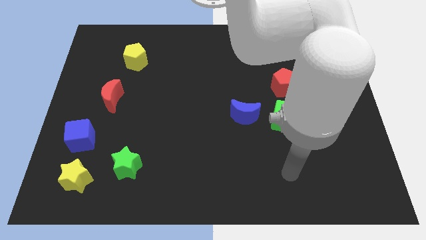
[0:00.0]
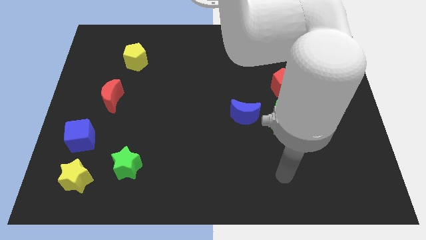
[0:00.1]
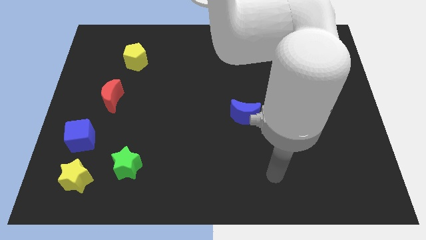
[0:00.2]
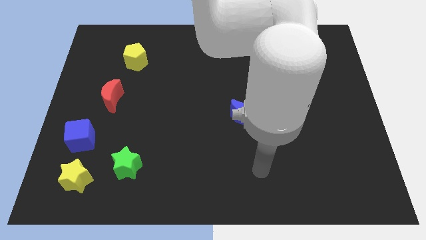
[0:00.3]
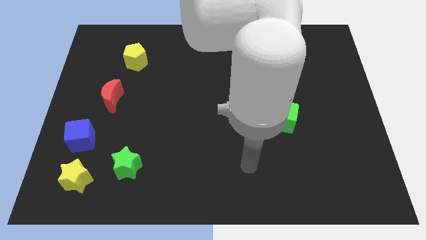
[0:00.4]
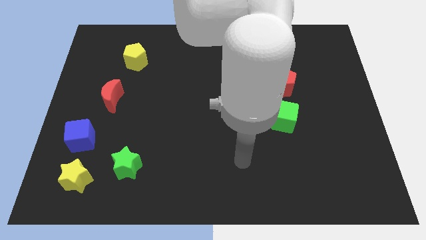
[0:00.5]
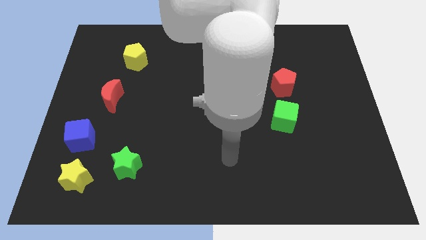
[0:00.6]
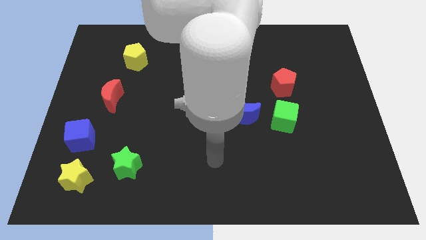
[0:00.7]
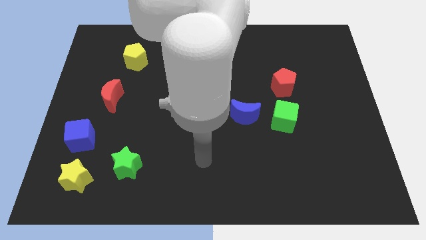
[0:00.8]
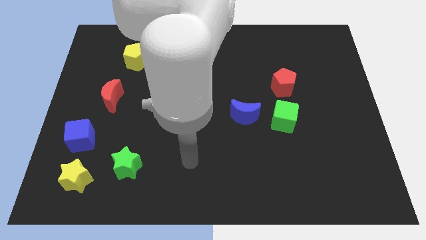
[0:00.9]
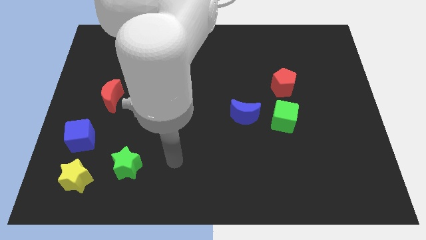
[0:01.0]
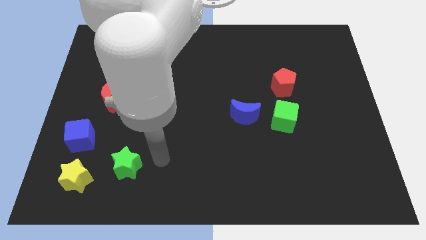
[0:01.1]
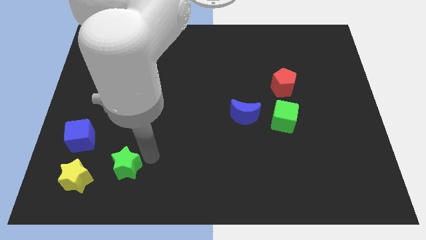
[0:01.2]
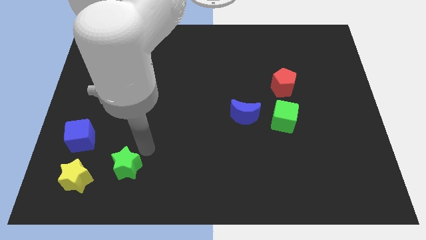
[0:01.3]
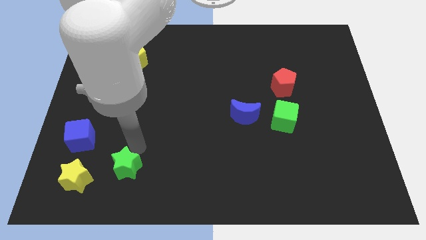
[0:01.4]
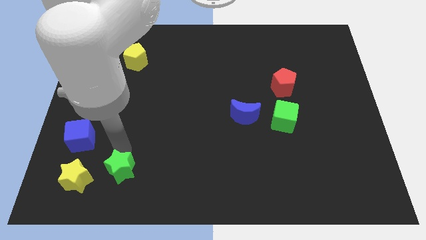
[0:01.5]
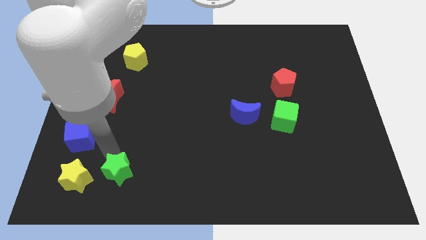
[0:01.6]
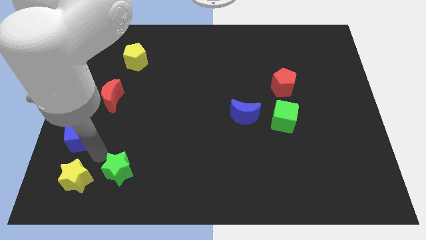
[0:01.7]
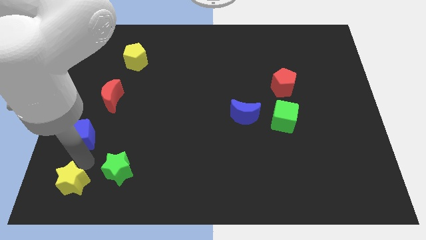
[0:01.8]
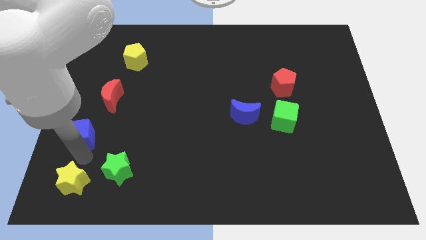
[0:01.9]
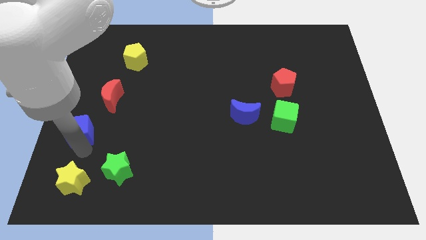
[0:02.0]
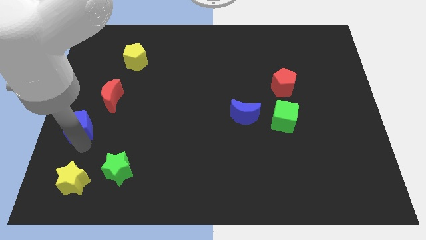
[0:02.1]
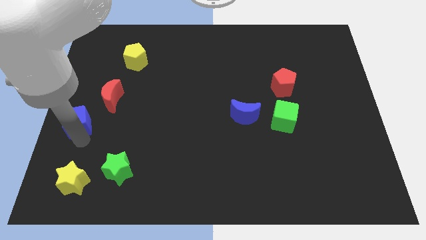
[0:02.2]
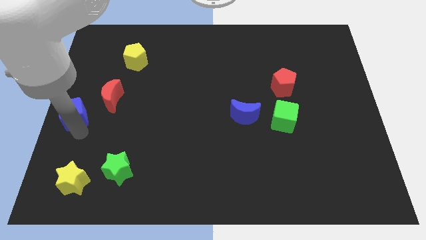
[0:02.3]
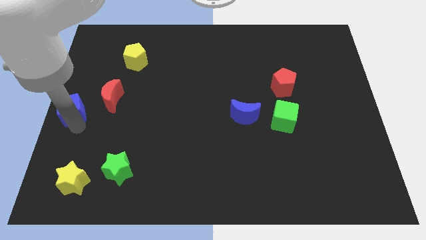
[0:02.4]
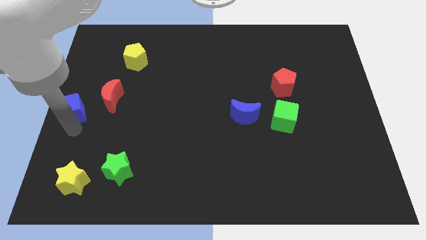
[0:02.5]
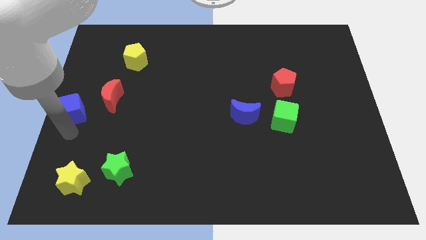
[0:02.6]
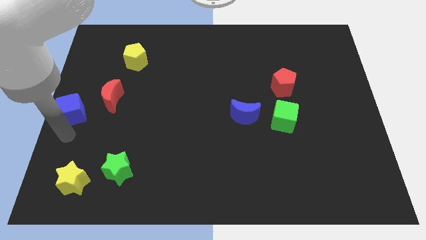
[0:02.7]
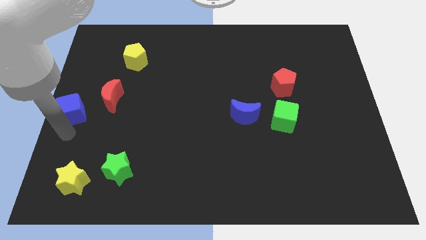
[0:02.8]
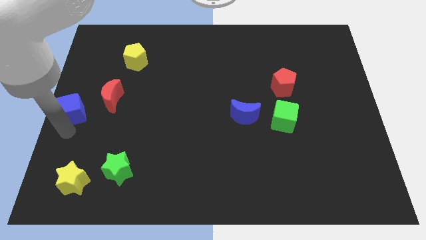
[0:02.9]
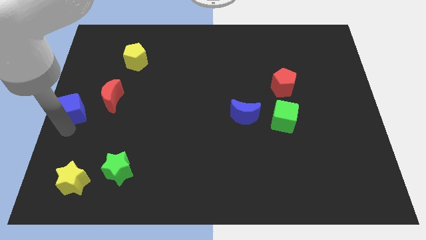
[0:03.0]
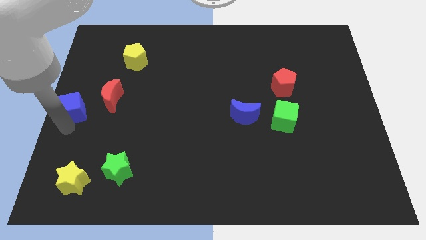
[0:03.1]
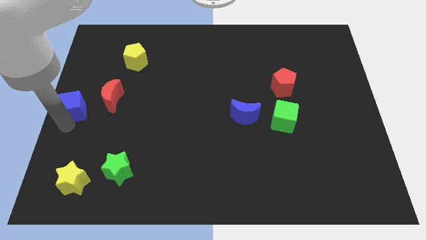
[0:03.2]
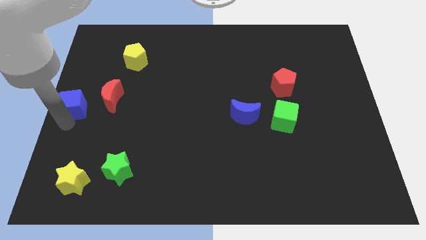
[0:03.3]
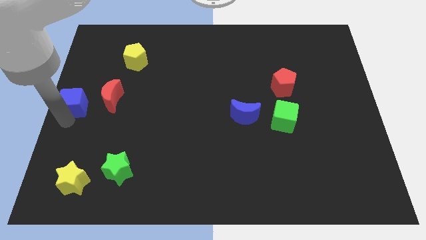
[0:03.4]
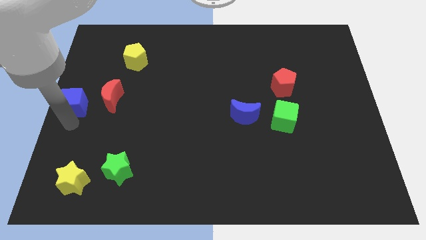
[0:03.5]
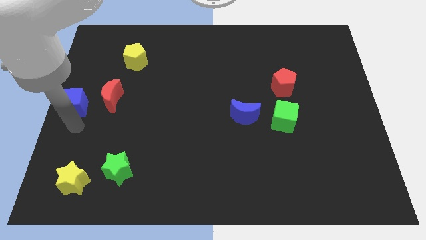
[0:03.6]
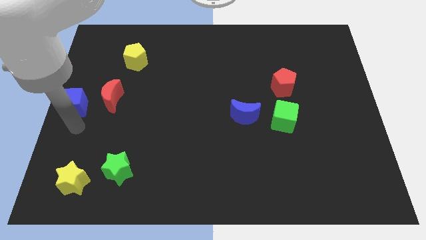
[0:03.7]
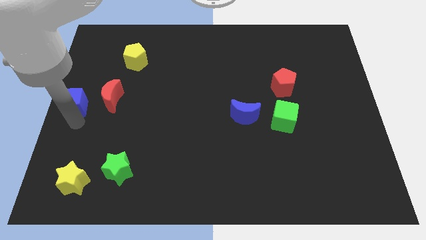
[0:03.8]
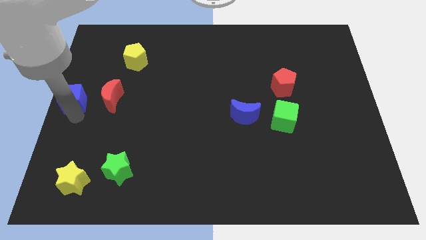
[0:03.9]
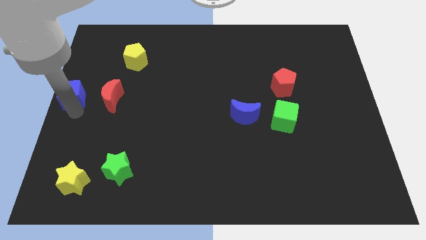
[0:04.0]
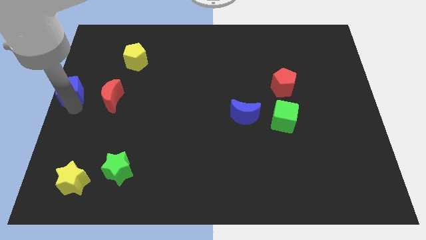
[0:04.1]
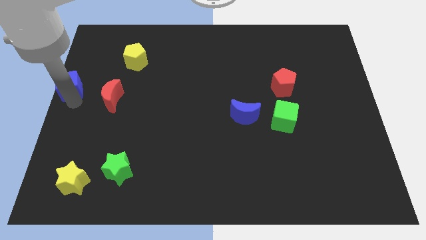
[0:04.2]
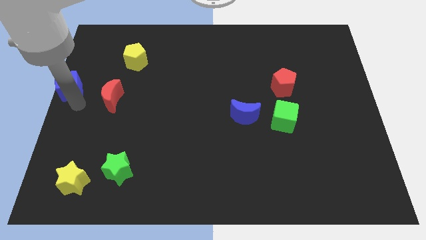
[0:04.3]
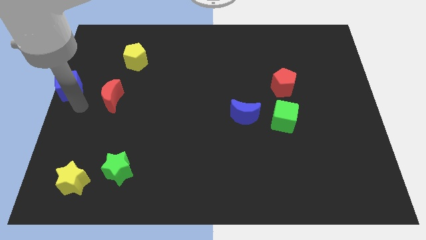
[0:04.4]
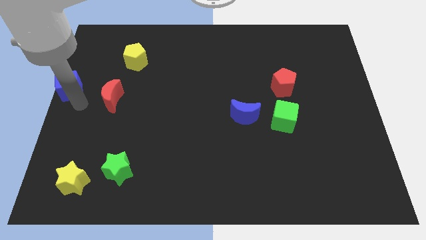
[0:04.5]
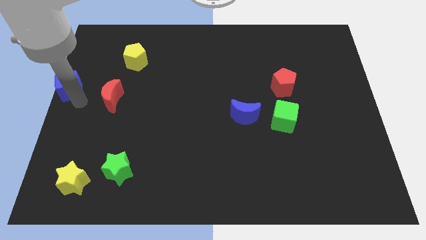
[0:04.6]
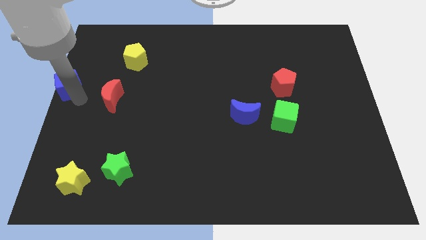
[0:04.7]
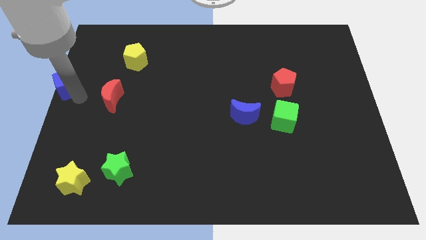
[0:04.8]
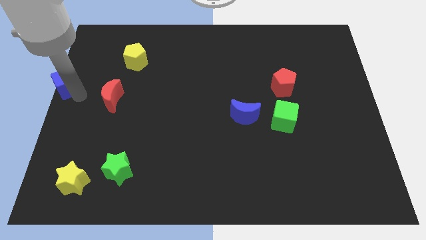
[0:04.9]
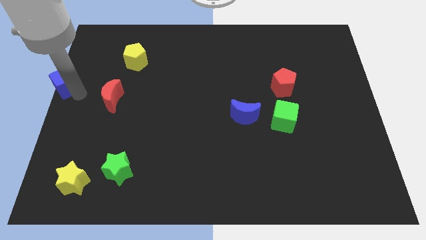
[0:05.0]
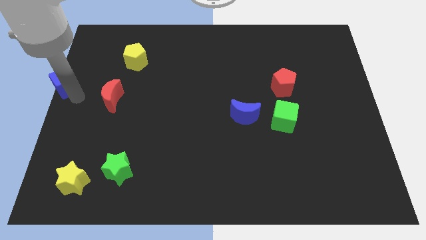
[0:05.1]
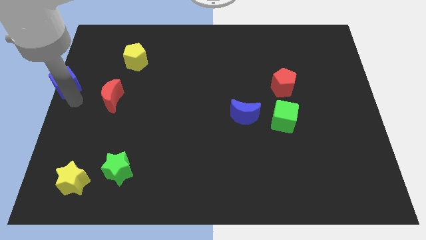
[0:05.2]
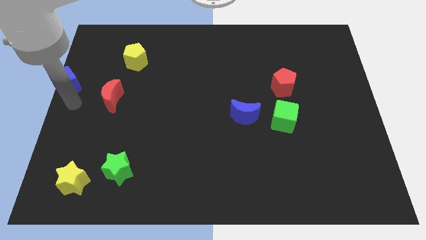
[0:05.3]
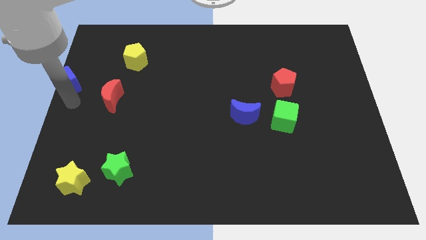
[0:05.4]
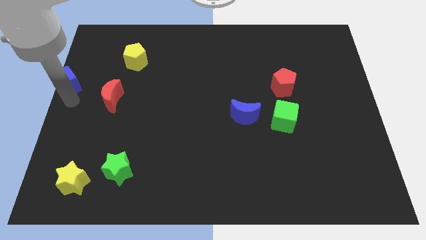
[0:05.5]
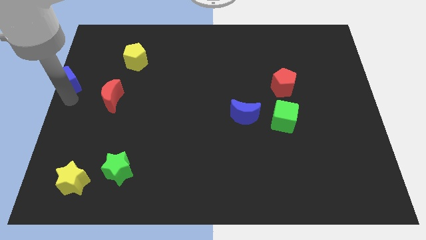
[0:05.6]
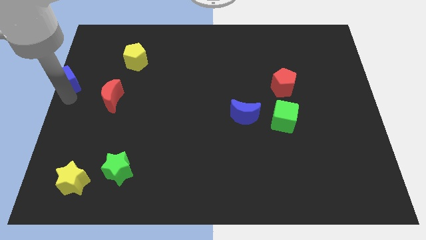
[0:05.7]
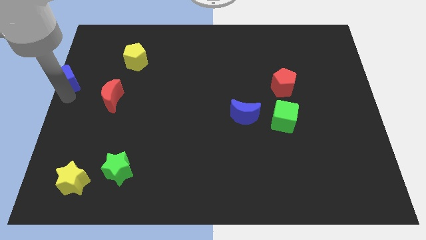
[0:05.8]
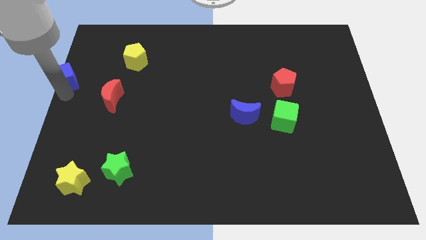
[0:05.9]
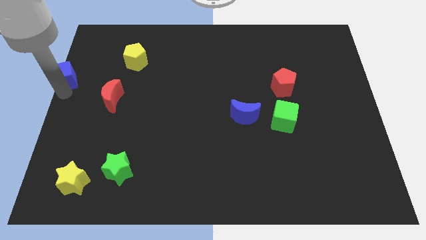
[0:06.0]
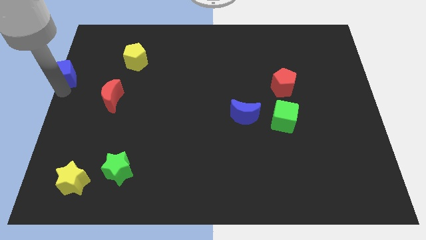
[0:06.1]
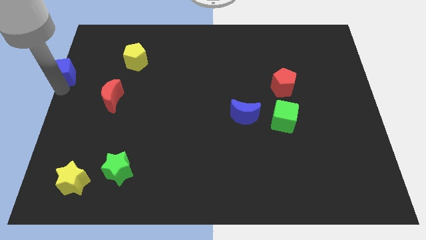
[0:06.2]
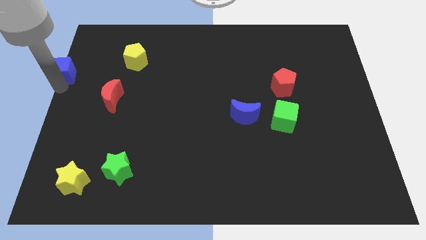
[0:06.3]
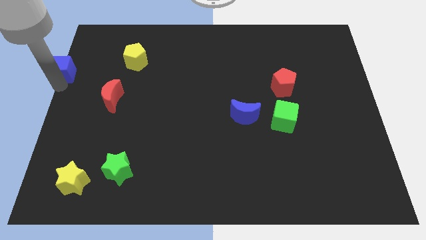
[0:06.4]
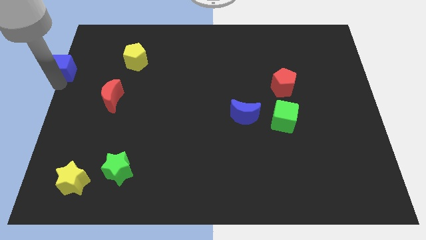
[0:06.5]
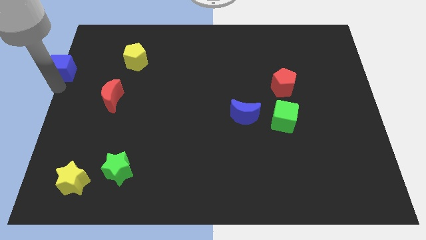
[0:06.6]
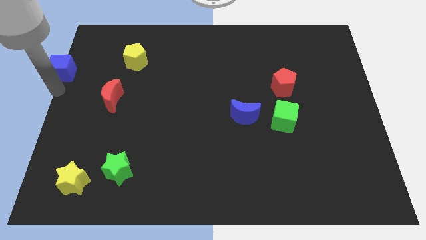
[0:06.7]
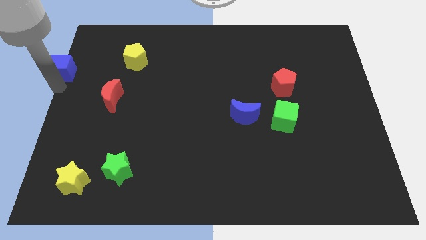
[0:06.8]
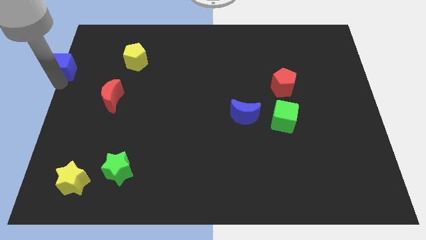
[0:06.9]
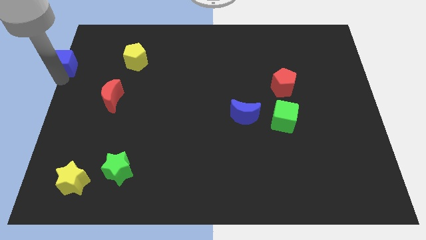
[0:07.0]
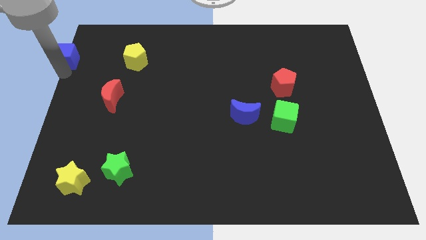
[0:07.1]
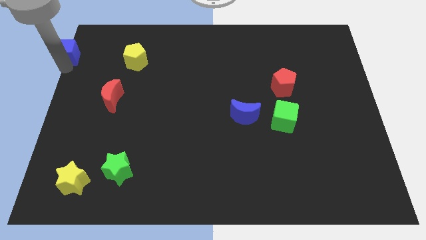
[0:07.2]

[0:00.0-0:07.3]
put the blue cube to the top left of the board
